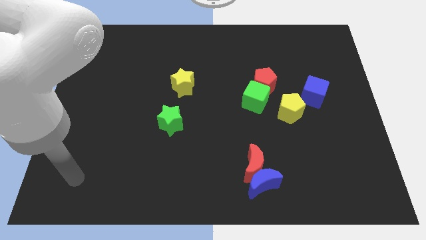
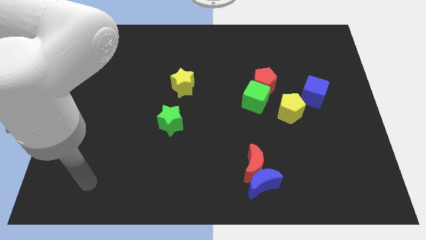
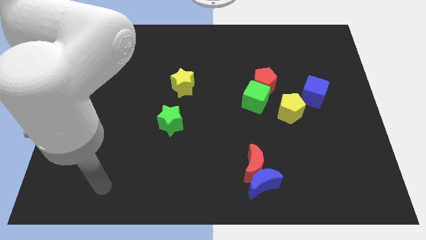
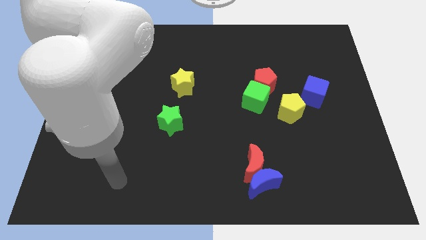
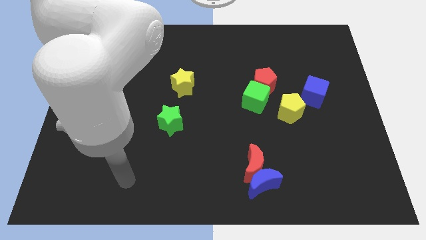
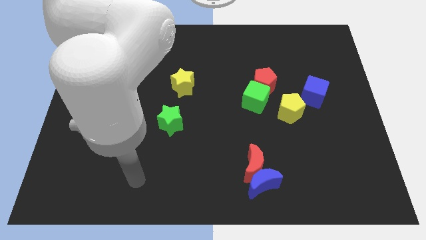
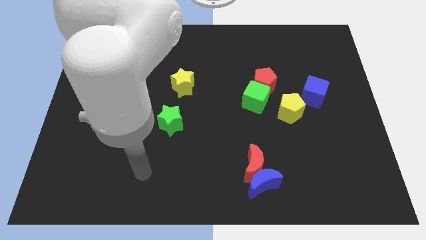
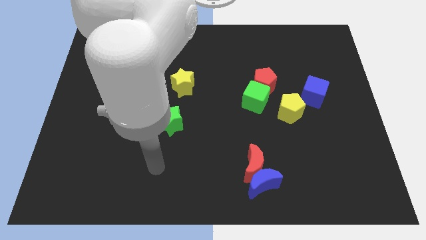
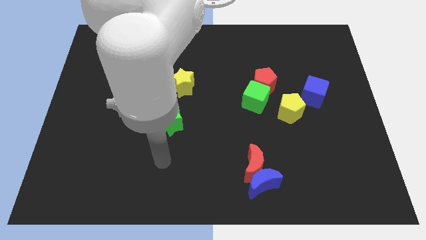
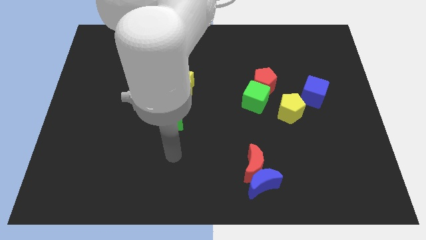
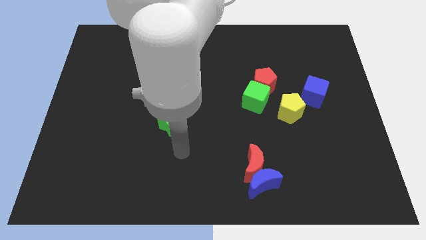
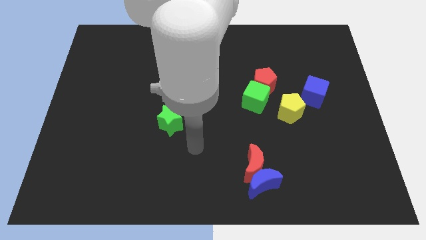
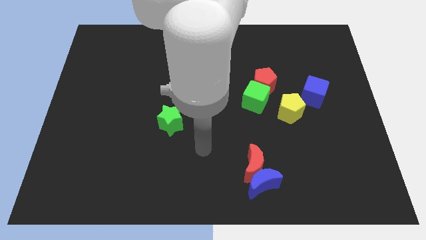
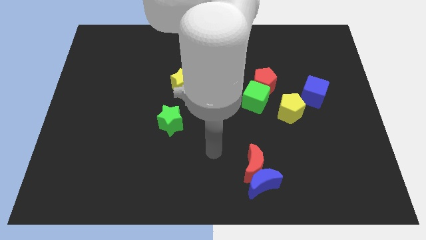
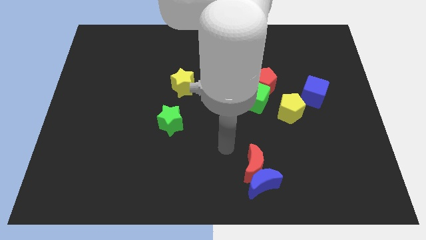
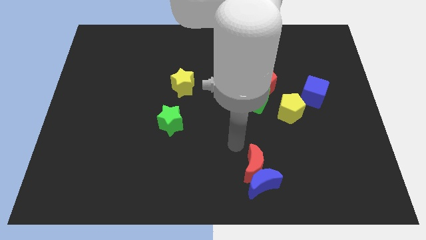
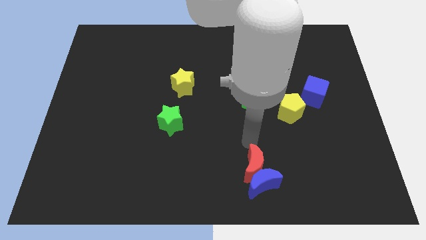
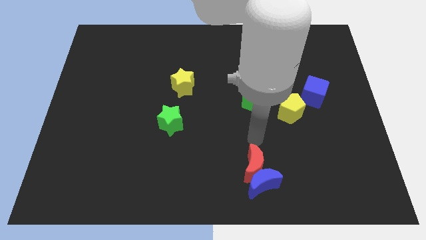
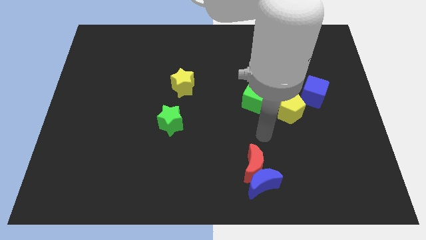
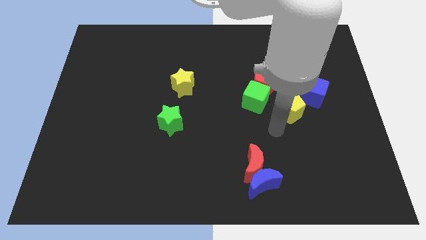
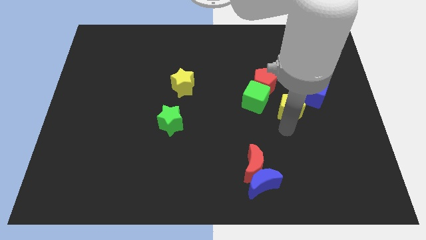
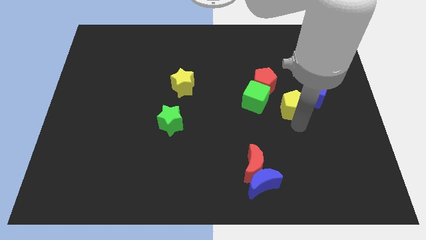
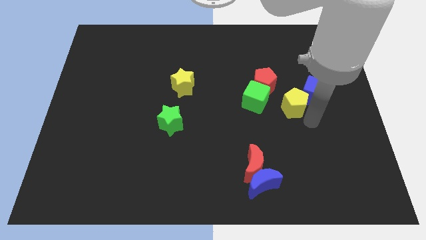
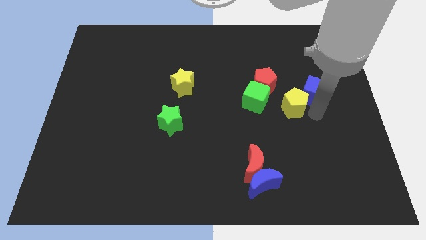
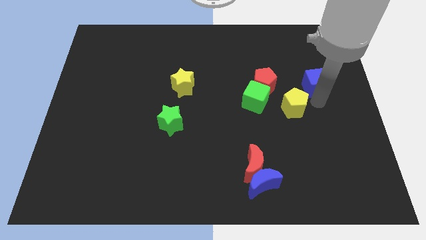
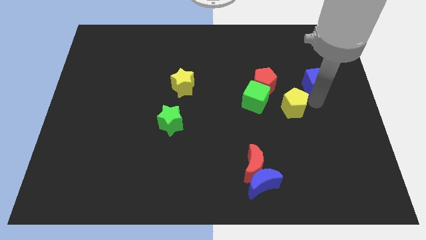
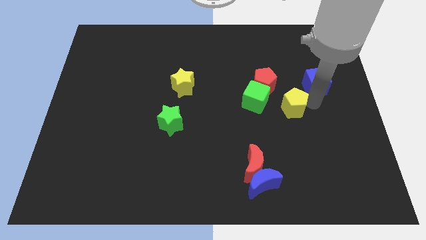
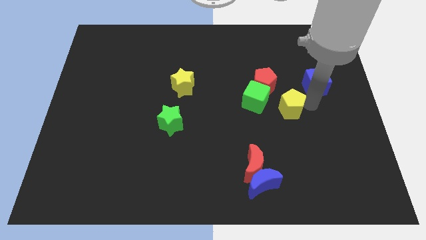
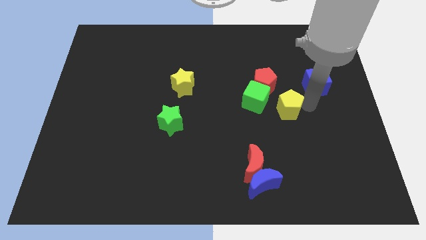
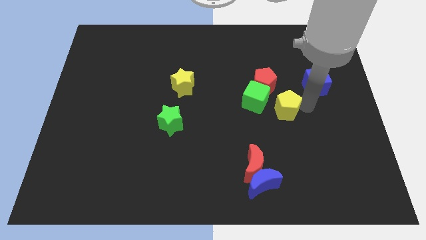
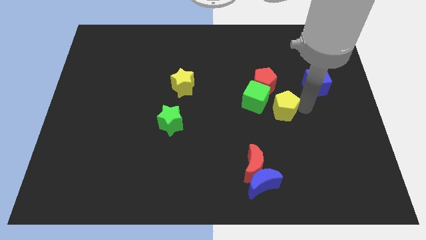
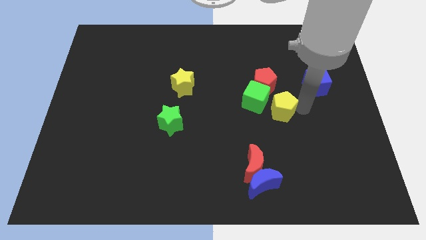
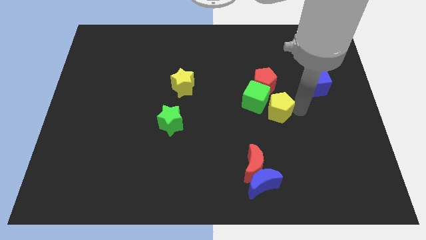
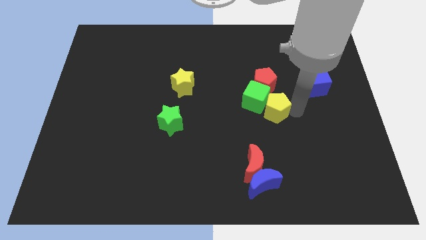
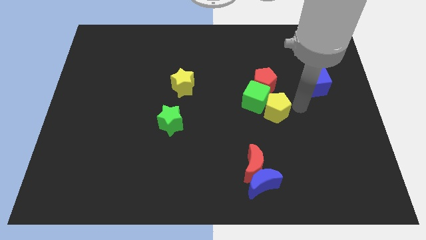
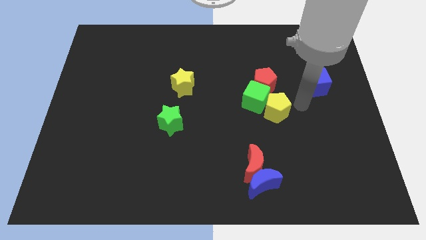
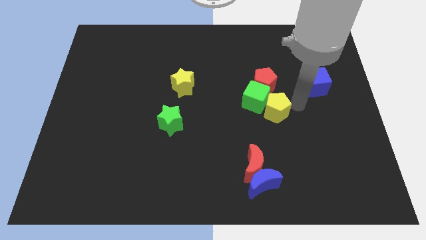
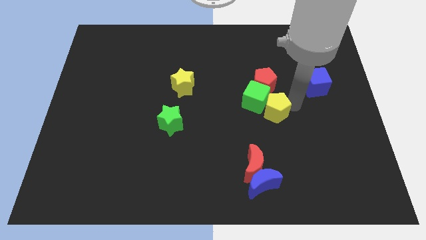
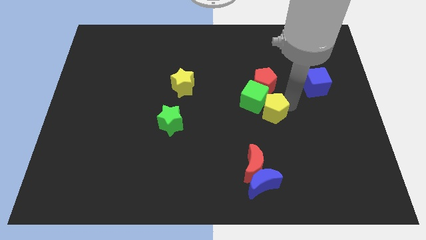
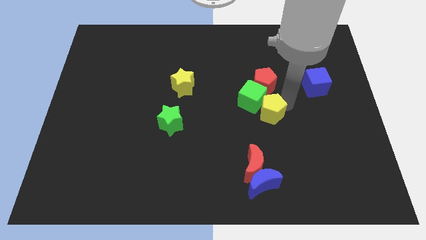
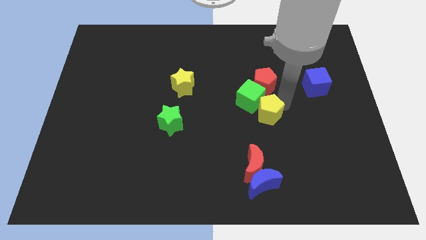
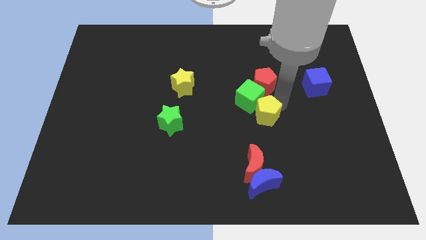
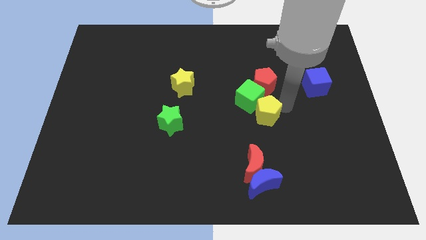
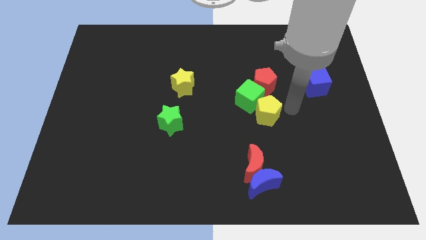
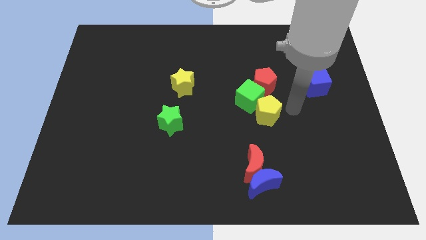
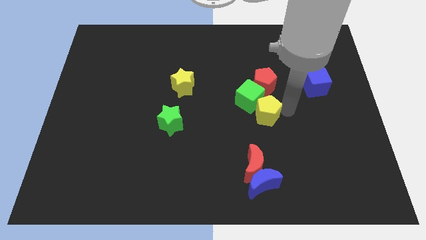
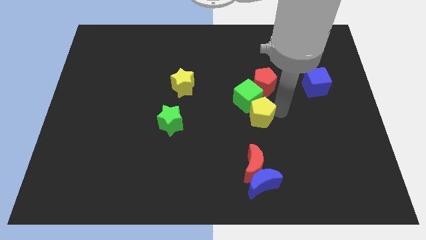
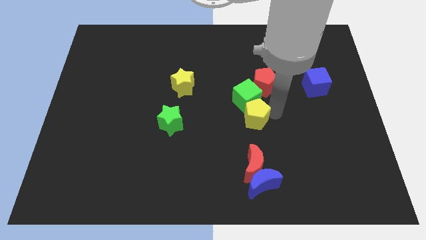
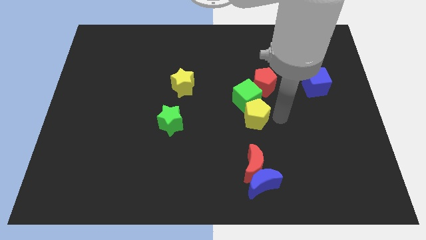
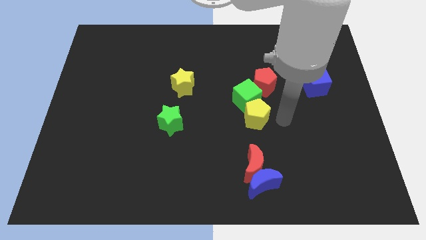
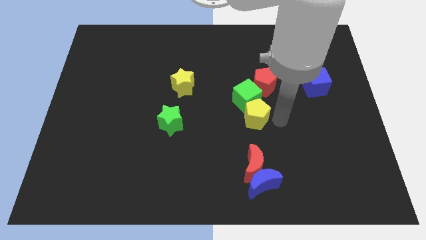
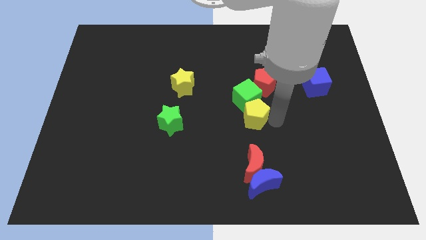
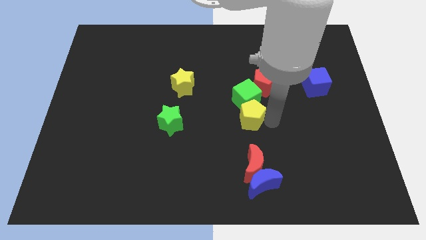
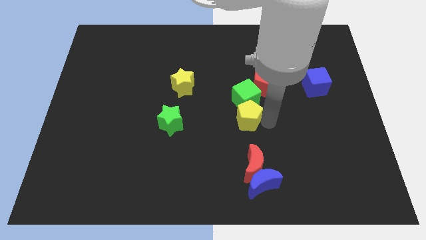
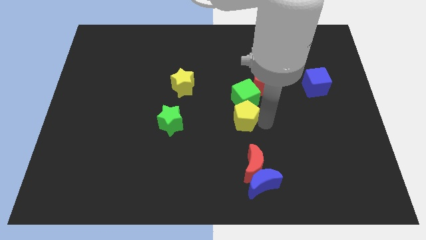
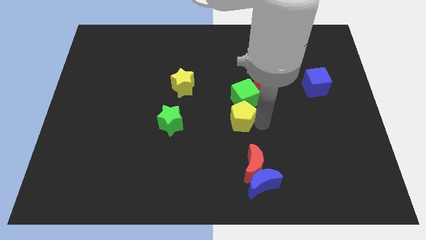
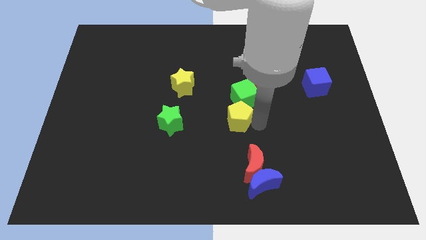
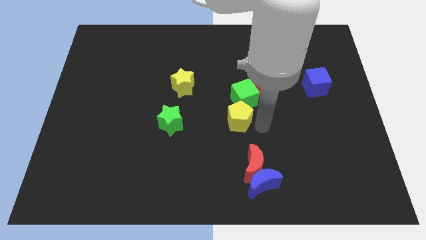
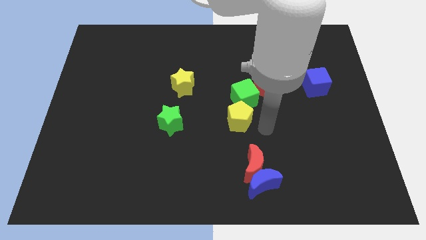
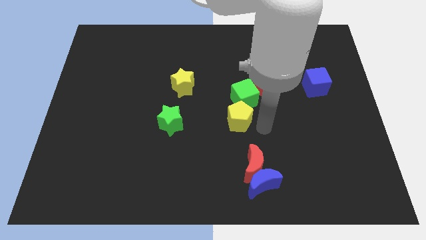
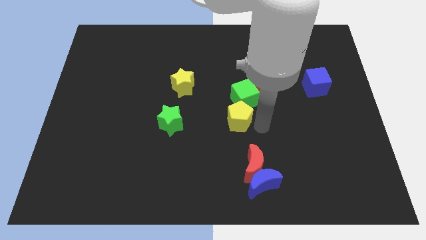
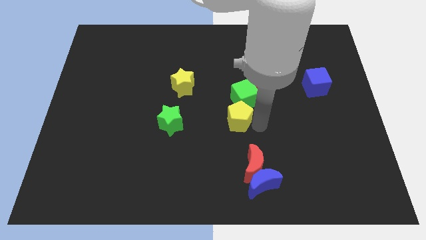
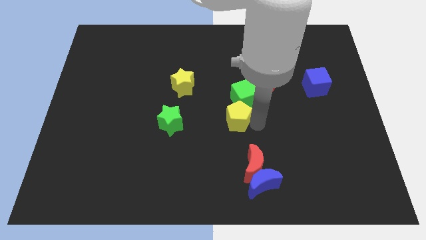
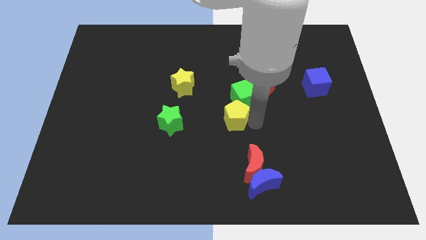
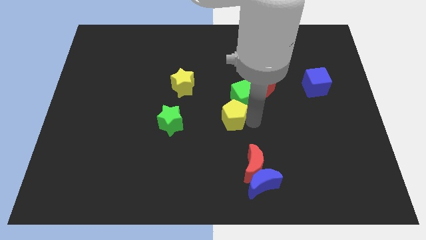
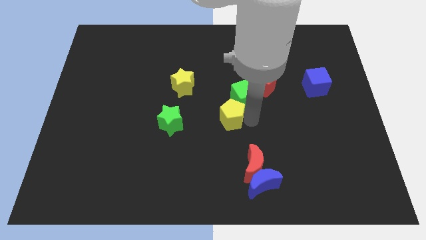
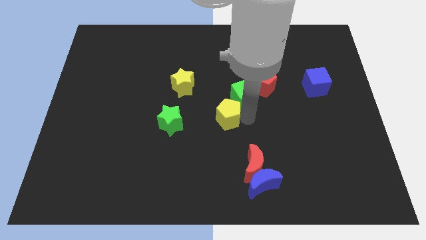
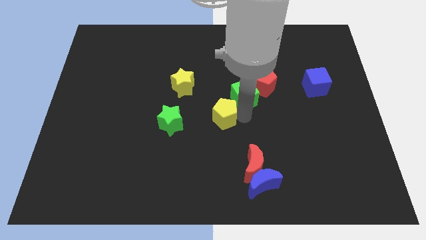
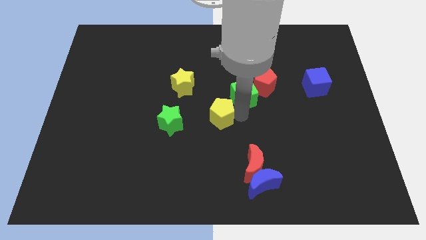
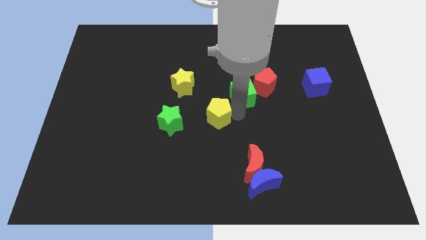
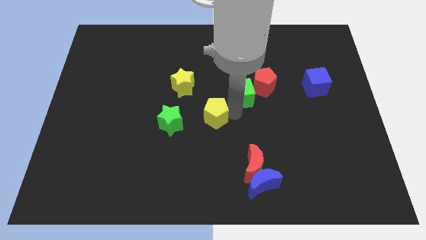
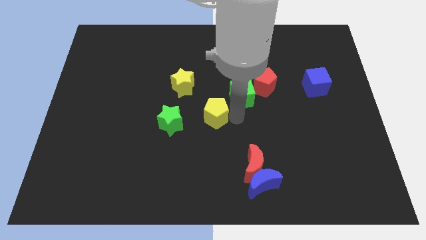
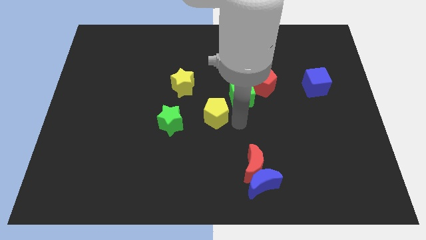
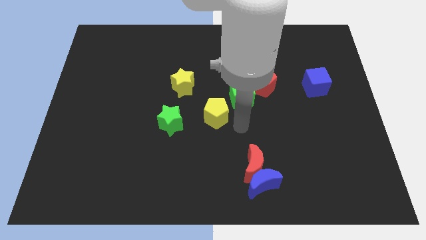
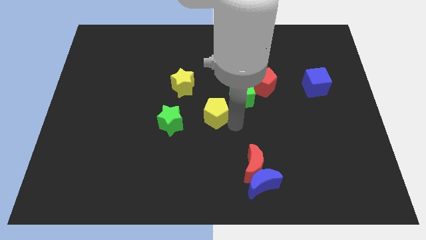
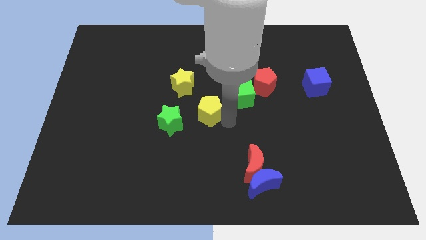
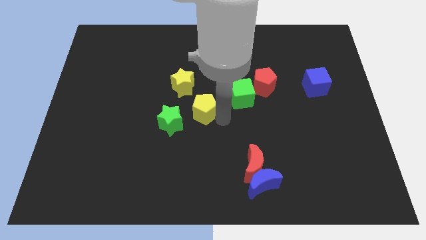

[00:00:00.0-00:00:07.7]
slide the yellow pentagon left

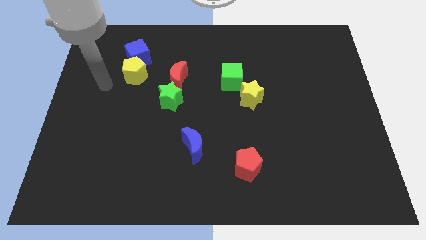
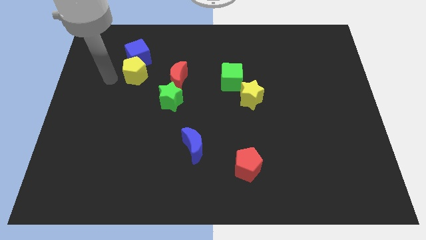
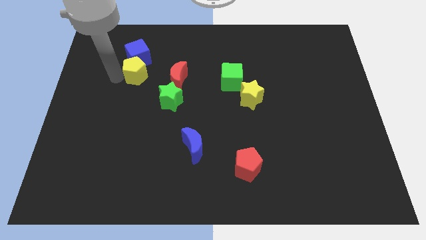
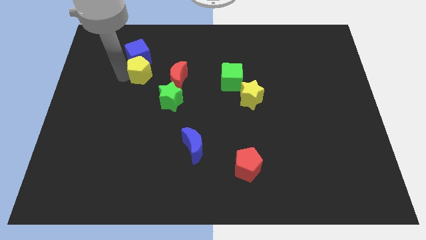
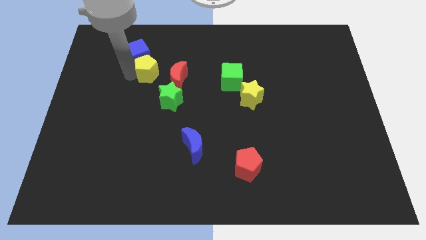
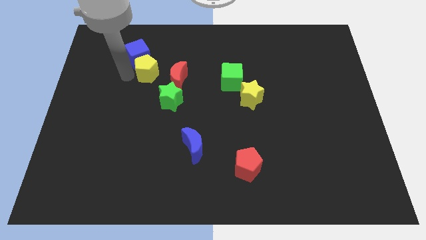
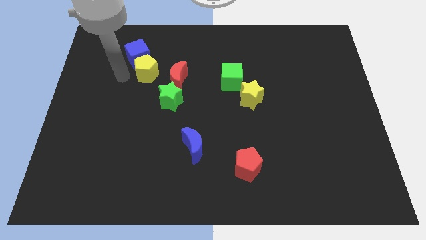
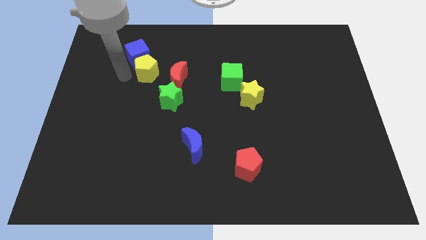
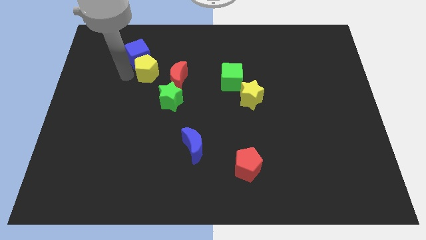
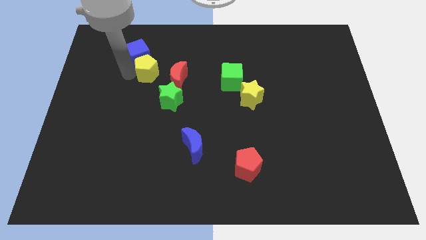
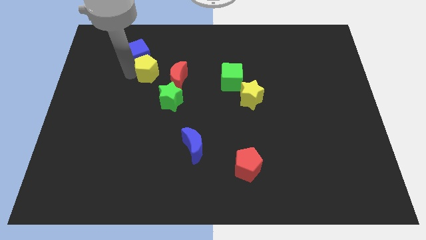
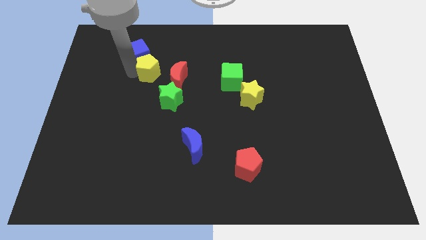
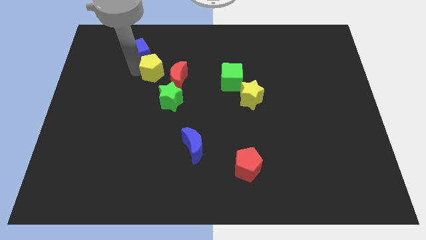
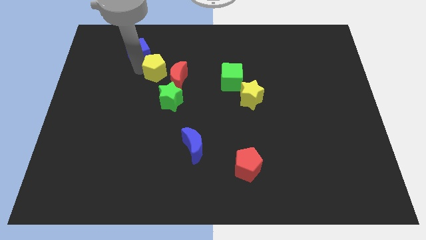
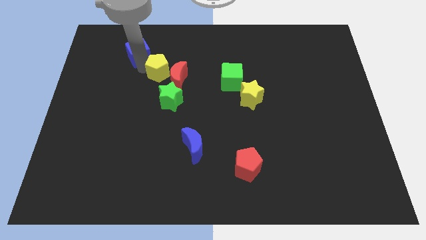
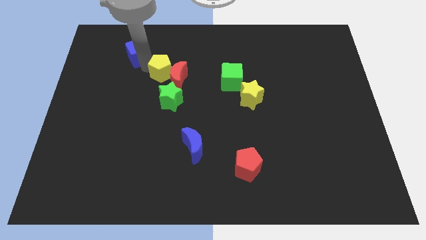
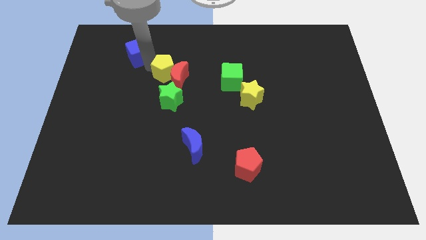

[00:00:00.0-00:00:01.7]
slightly push the yellow pentagon to the right
